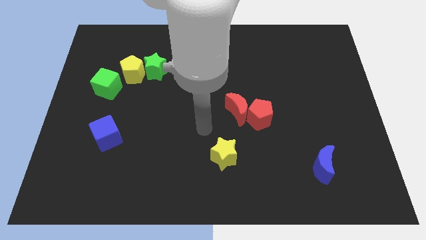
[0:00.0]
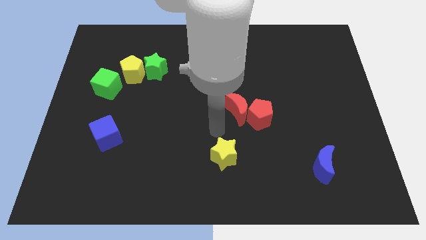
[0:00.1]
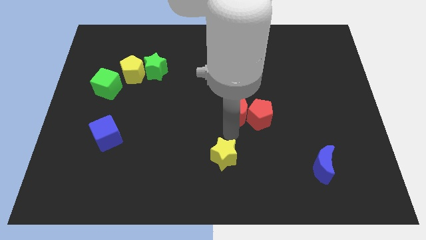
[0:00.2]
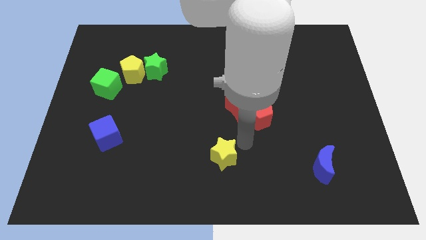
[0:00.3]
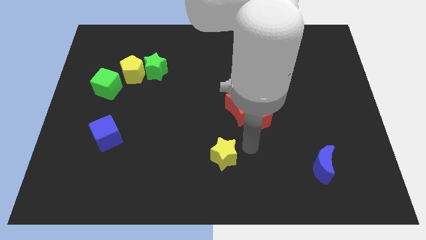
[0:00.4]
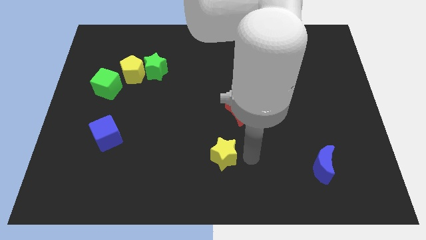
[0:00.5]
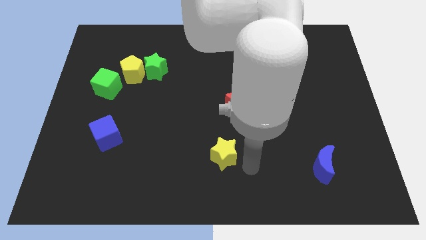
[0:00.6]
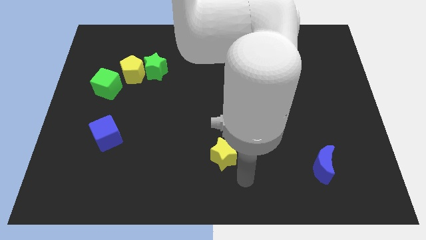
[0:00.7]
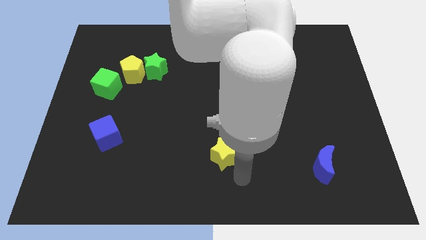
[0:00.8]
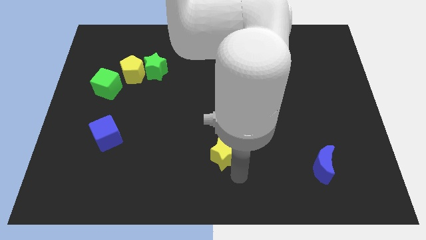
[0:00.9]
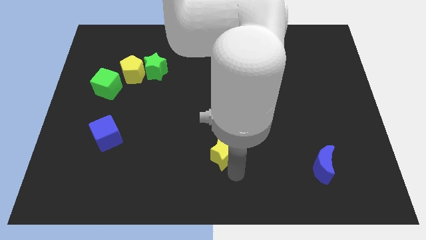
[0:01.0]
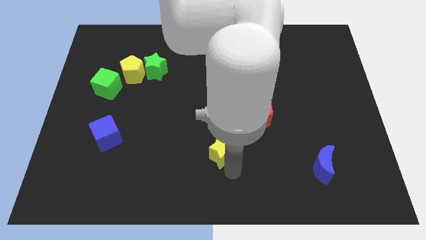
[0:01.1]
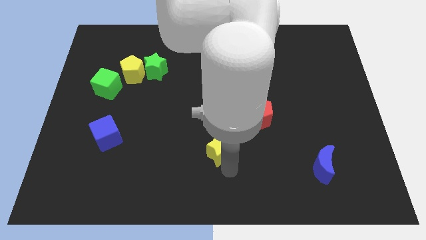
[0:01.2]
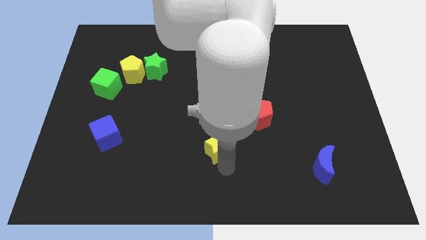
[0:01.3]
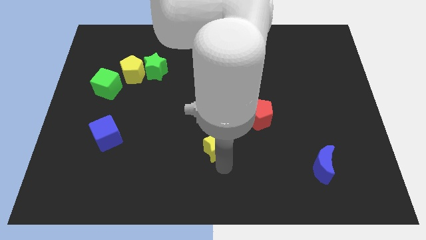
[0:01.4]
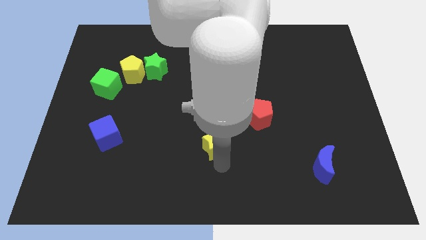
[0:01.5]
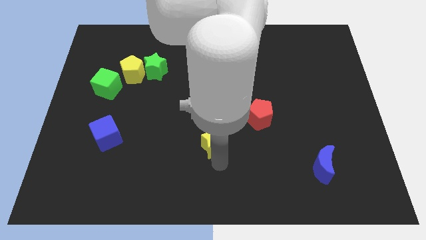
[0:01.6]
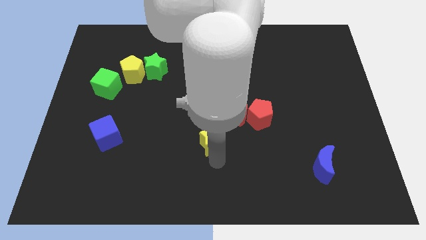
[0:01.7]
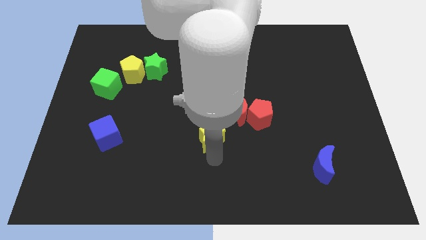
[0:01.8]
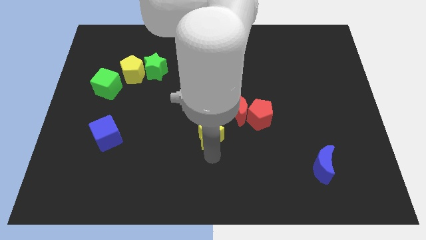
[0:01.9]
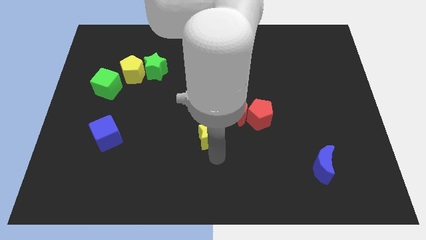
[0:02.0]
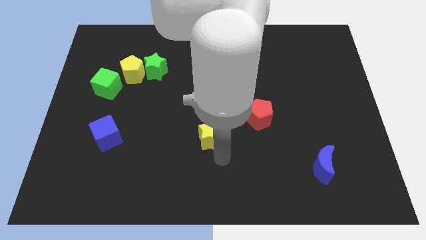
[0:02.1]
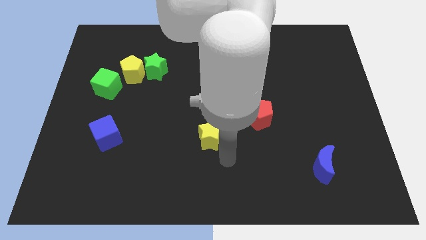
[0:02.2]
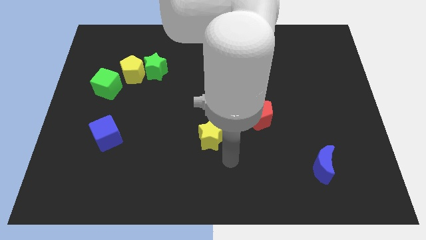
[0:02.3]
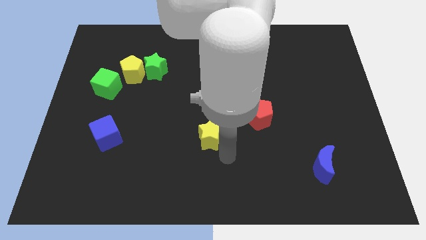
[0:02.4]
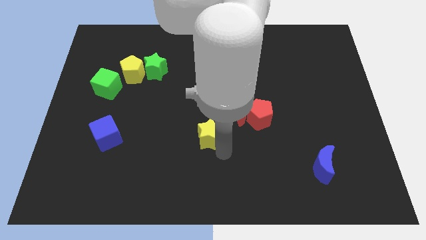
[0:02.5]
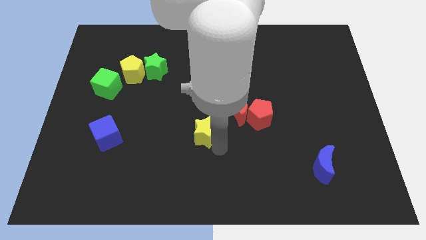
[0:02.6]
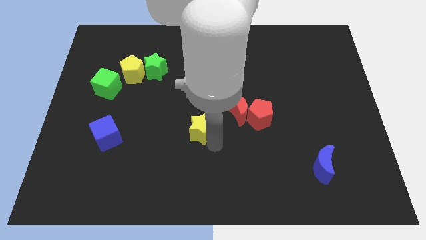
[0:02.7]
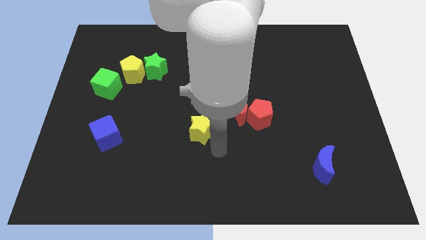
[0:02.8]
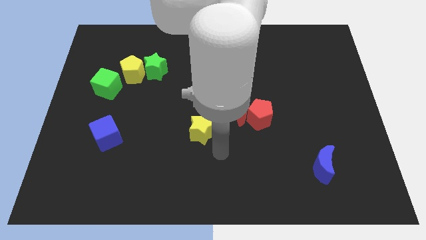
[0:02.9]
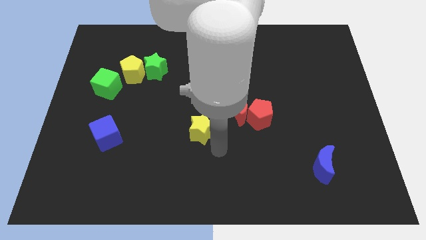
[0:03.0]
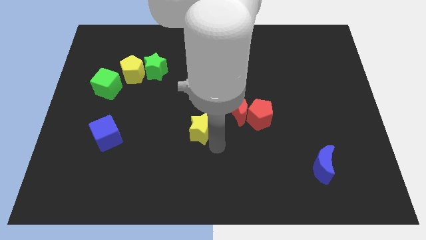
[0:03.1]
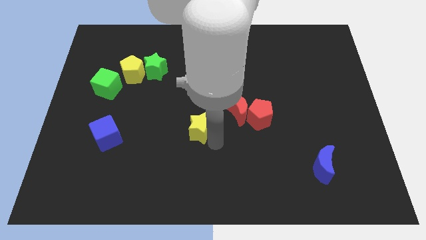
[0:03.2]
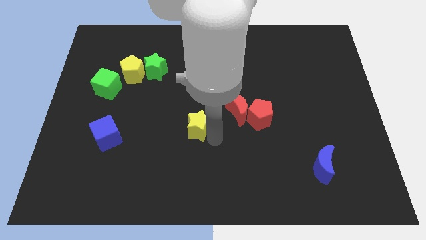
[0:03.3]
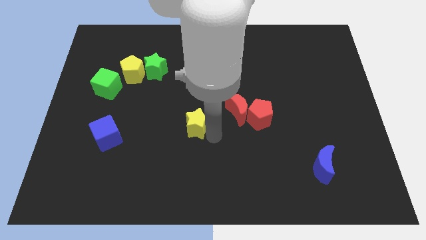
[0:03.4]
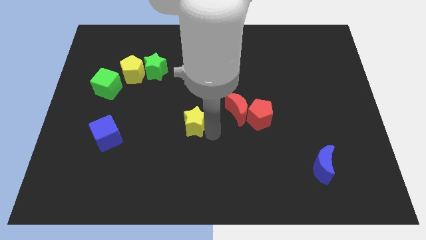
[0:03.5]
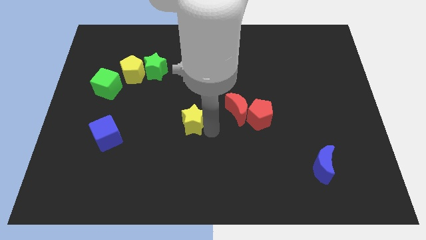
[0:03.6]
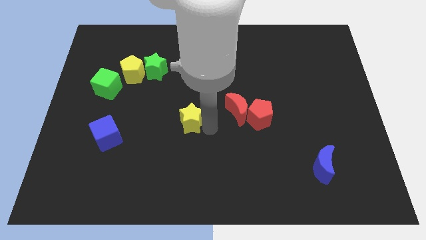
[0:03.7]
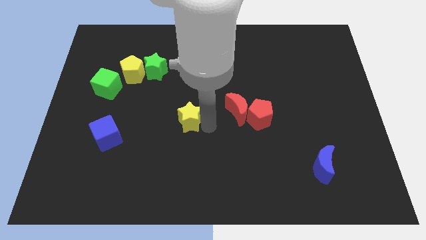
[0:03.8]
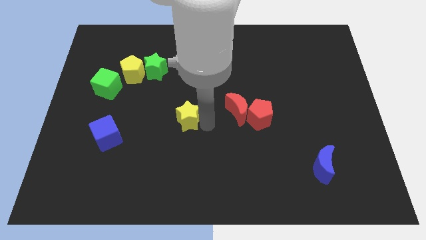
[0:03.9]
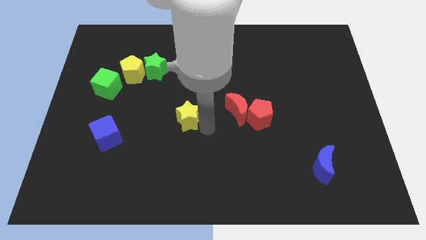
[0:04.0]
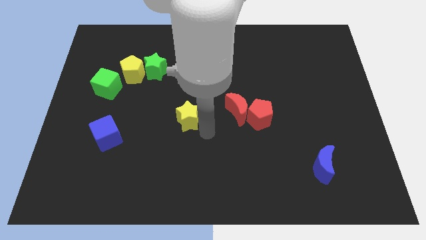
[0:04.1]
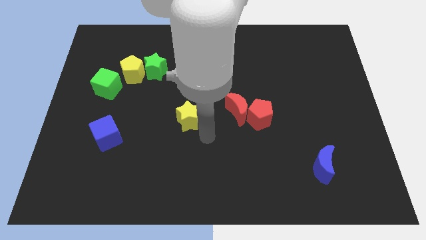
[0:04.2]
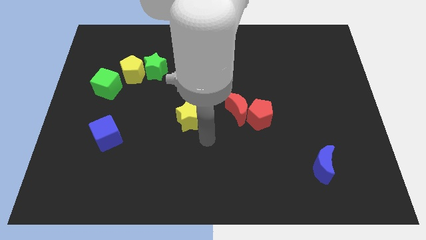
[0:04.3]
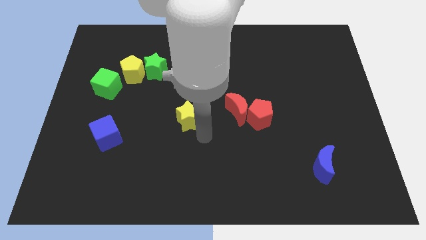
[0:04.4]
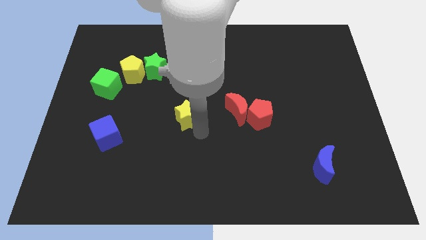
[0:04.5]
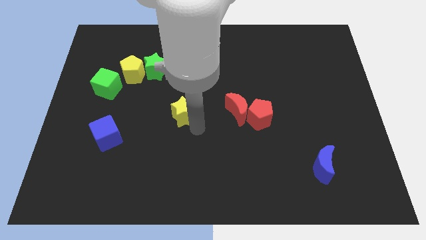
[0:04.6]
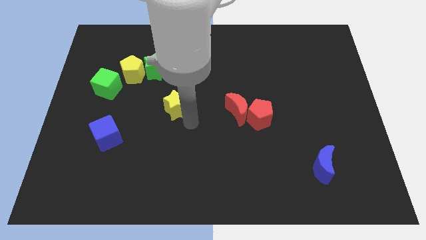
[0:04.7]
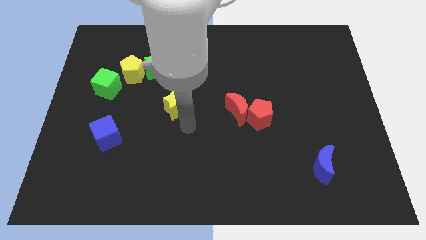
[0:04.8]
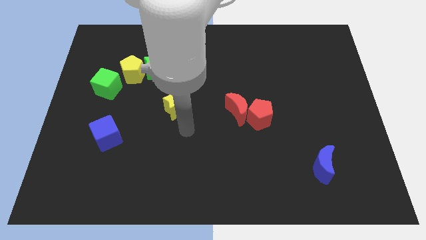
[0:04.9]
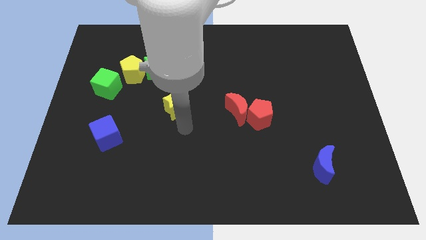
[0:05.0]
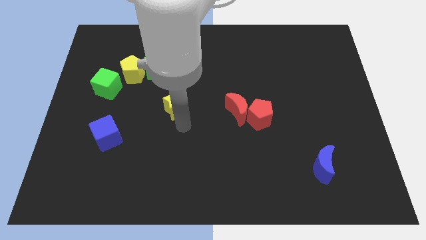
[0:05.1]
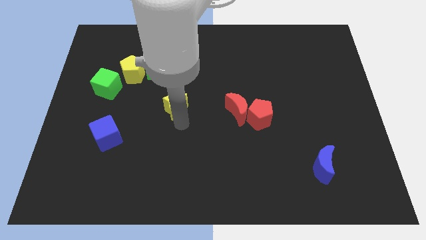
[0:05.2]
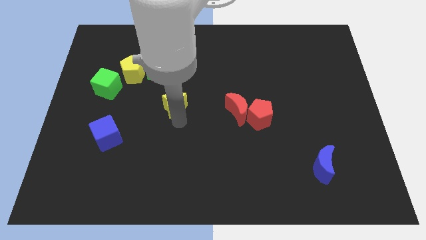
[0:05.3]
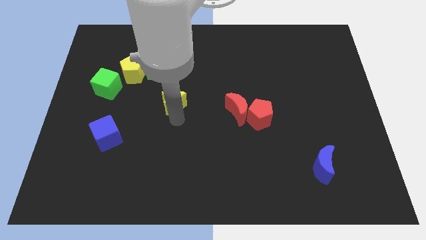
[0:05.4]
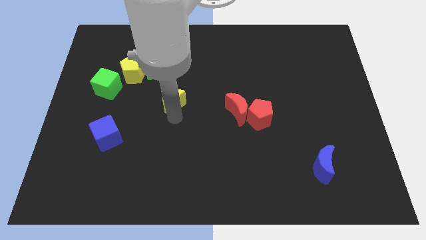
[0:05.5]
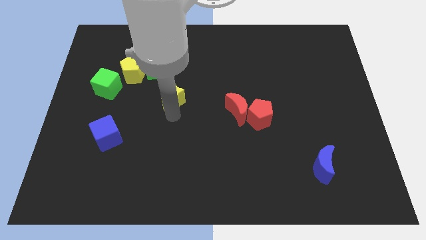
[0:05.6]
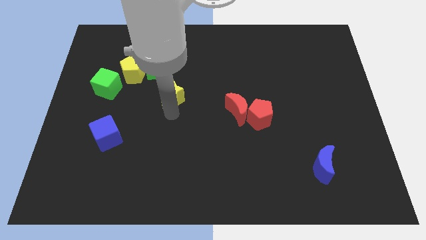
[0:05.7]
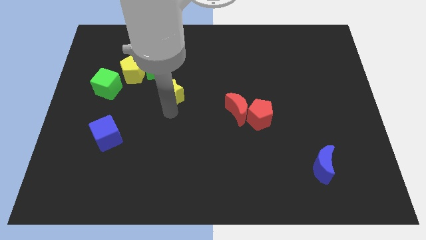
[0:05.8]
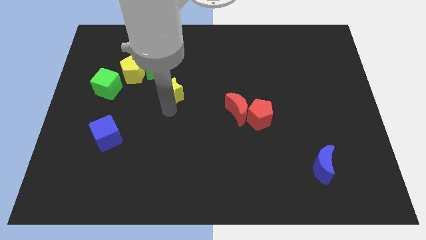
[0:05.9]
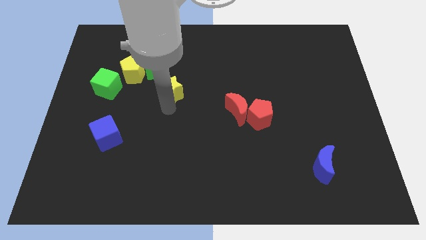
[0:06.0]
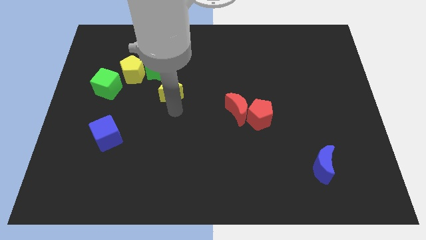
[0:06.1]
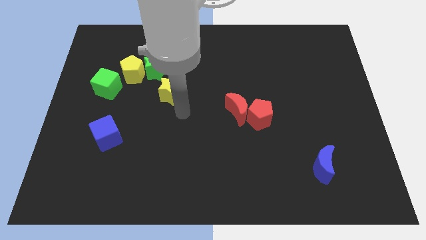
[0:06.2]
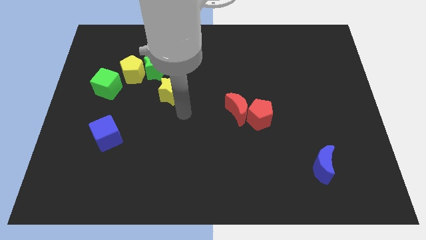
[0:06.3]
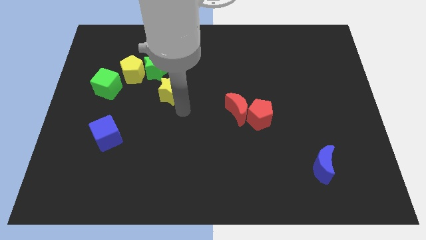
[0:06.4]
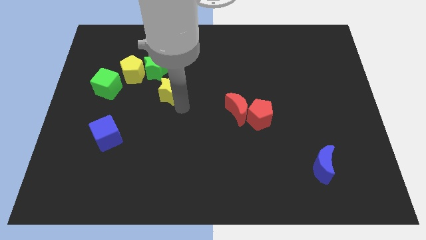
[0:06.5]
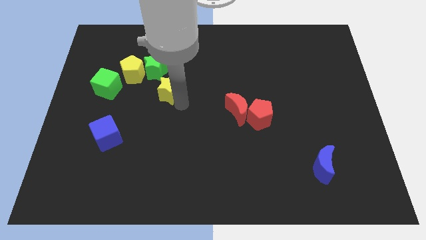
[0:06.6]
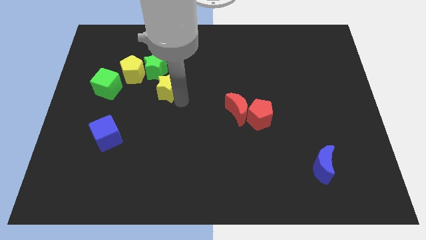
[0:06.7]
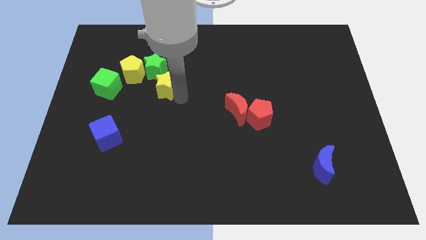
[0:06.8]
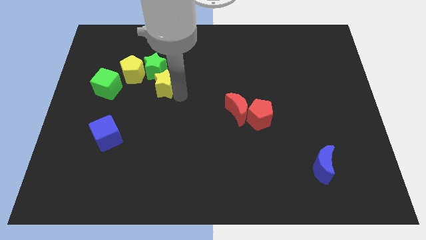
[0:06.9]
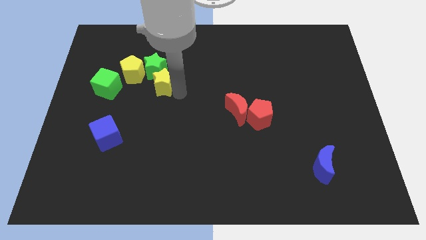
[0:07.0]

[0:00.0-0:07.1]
slide the yellow star close to the green star

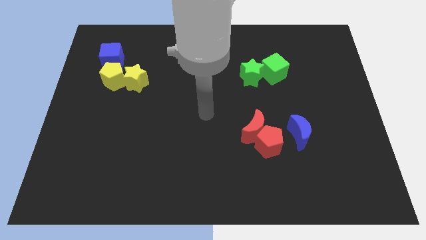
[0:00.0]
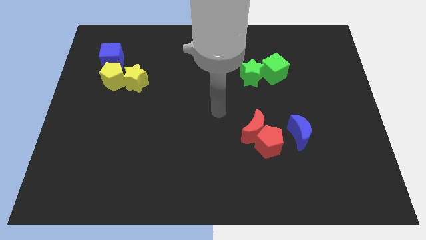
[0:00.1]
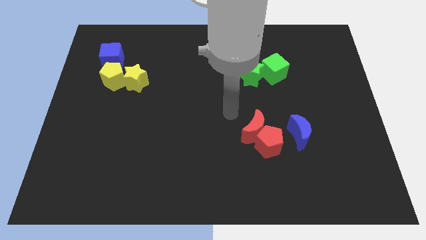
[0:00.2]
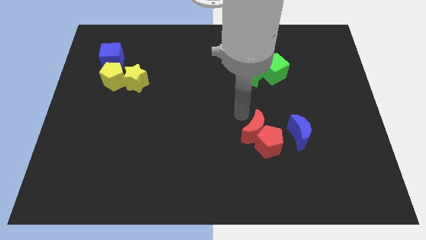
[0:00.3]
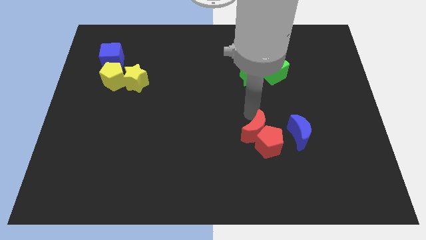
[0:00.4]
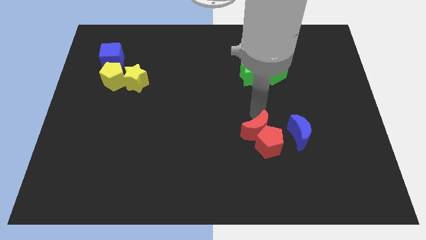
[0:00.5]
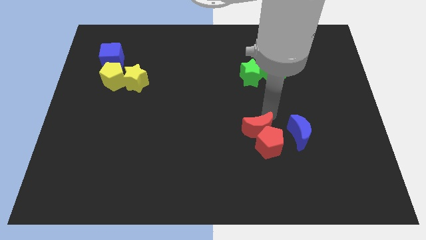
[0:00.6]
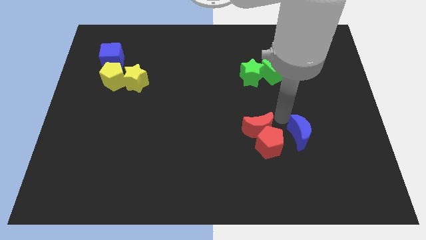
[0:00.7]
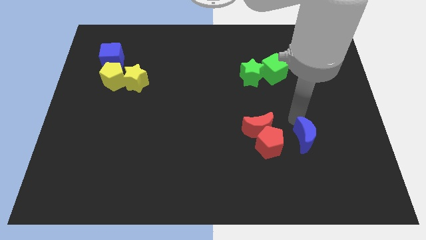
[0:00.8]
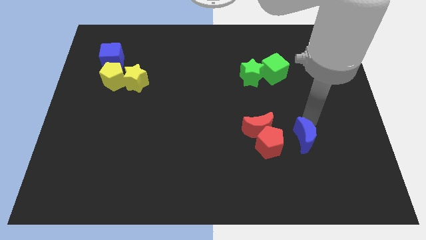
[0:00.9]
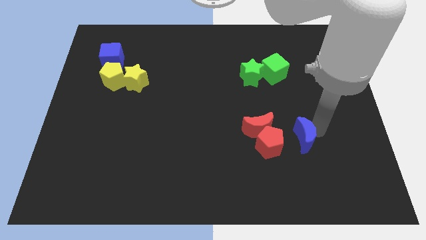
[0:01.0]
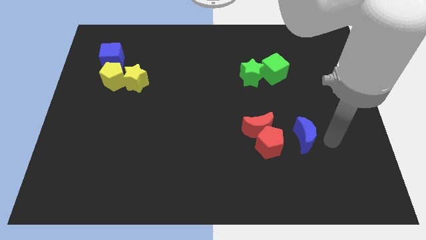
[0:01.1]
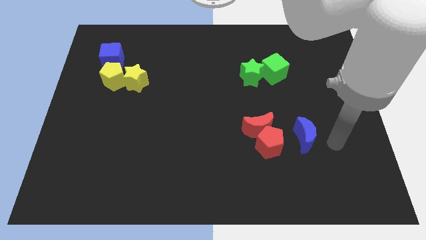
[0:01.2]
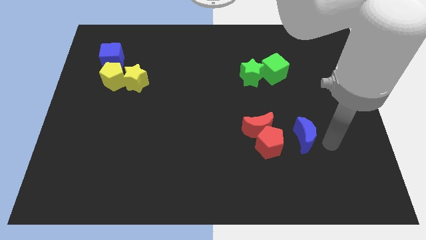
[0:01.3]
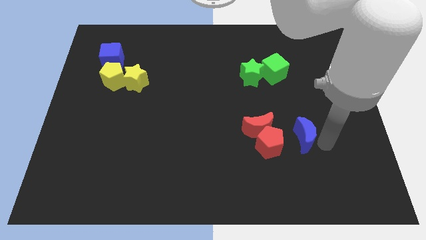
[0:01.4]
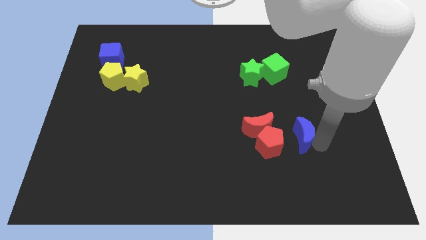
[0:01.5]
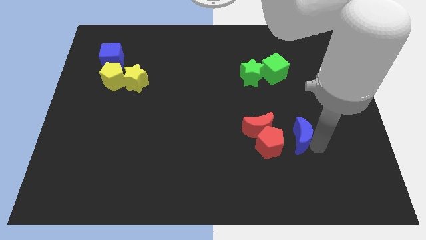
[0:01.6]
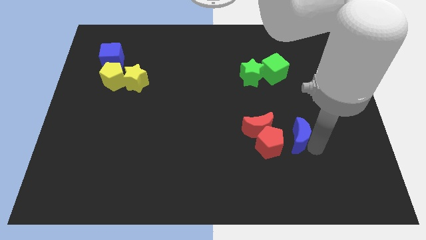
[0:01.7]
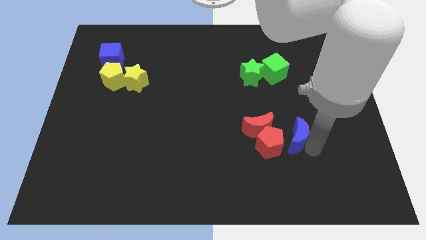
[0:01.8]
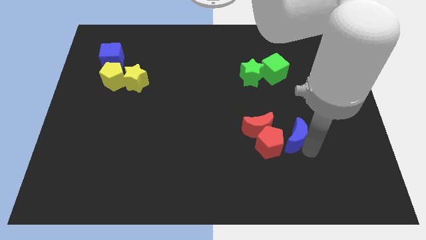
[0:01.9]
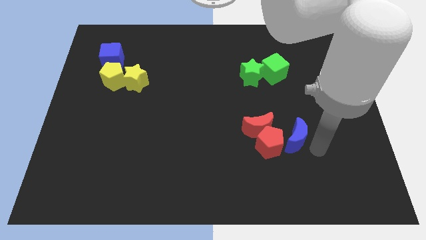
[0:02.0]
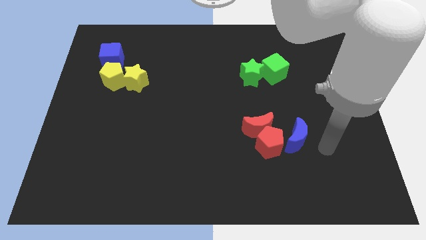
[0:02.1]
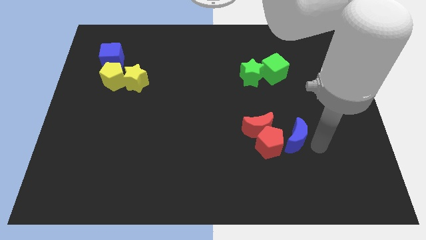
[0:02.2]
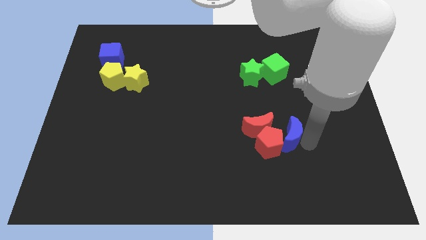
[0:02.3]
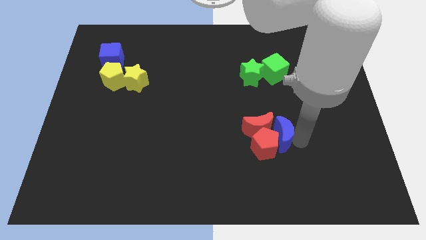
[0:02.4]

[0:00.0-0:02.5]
put the blue moon close to the red moon
